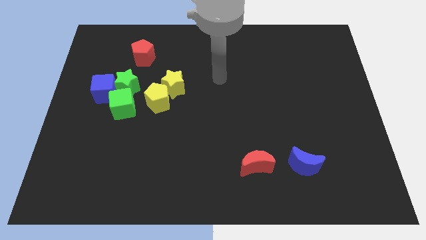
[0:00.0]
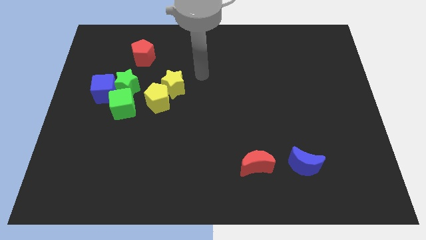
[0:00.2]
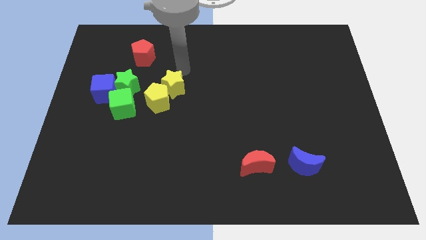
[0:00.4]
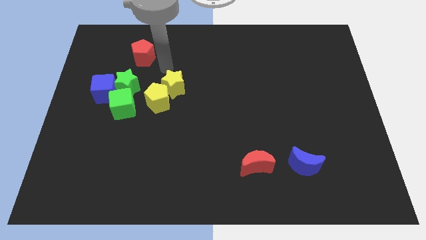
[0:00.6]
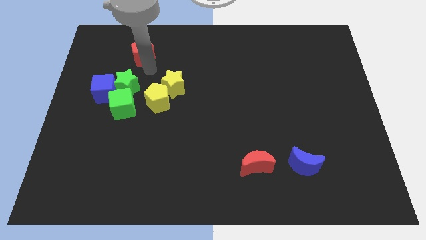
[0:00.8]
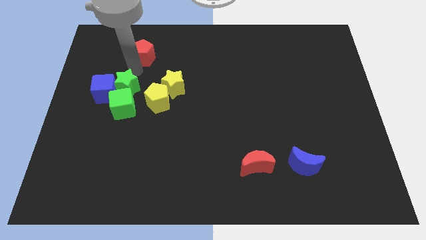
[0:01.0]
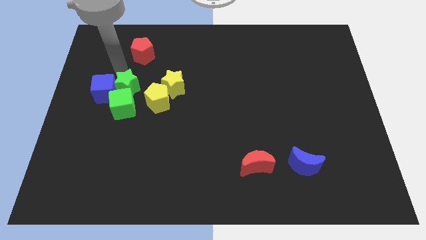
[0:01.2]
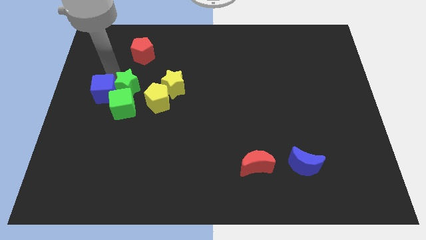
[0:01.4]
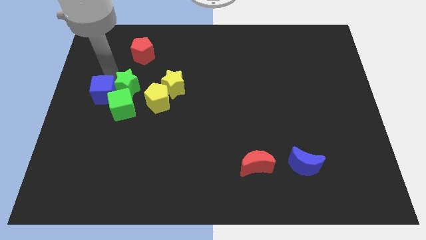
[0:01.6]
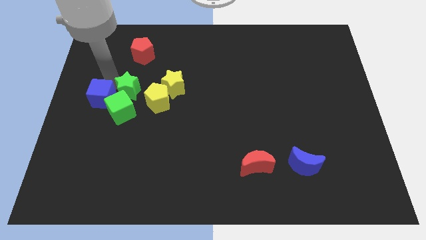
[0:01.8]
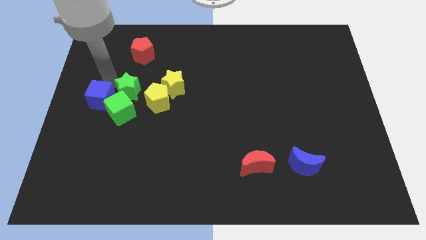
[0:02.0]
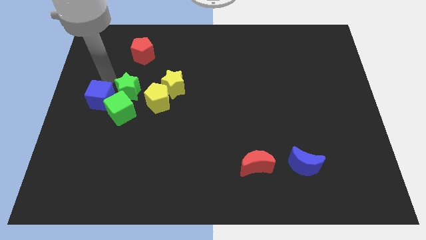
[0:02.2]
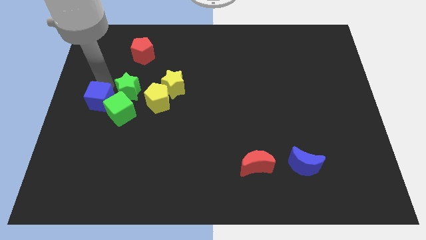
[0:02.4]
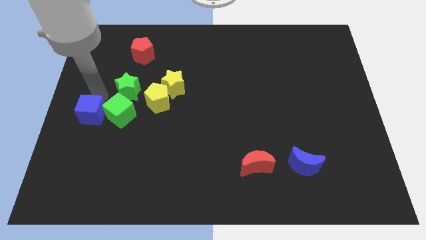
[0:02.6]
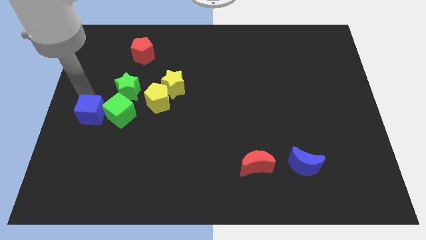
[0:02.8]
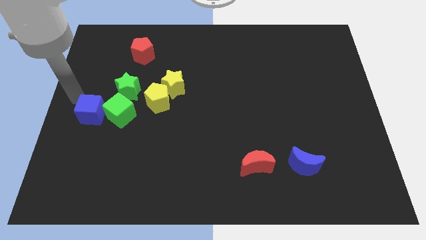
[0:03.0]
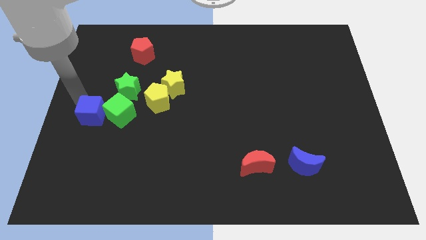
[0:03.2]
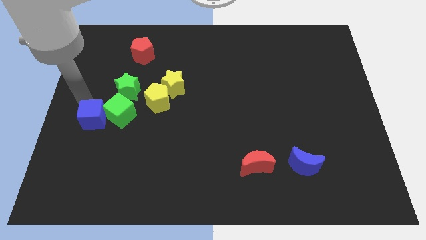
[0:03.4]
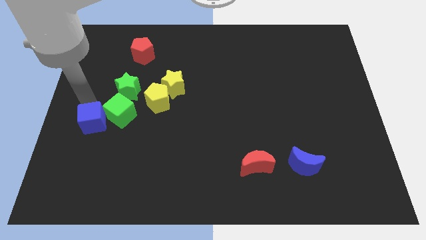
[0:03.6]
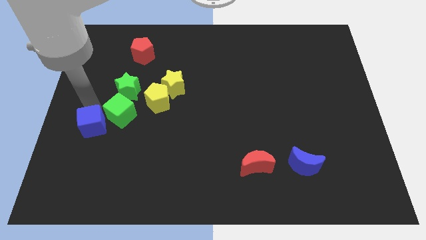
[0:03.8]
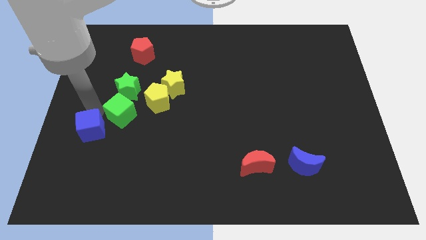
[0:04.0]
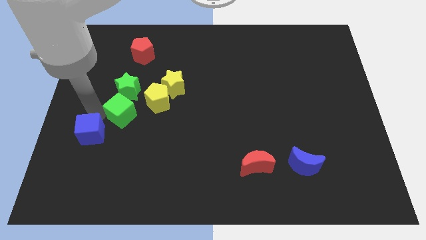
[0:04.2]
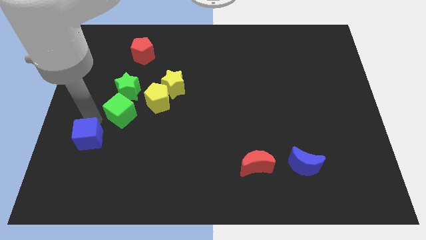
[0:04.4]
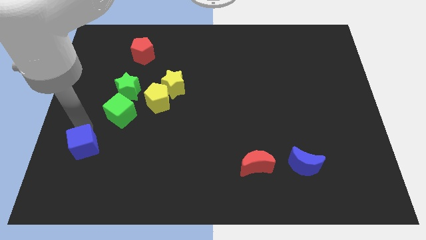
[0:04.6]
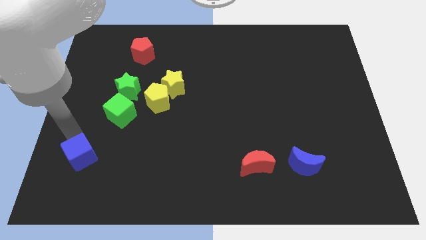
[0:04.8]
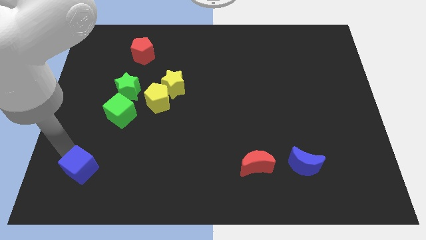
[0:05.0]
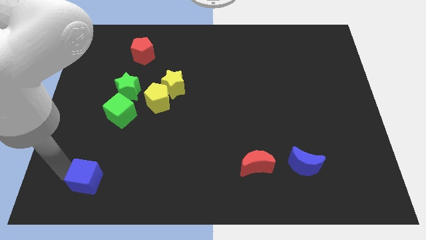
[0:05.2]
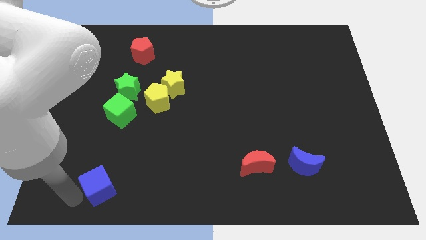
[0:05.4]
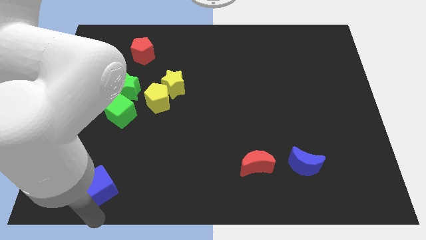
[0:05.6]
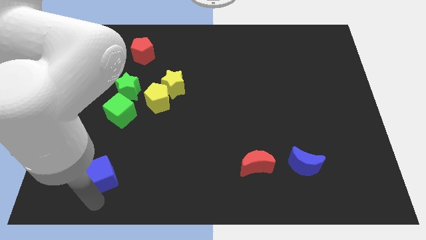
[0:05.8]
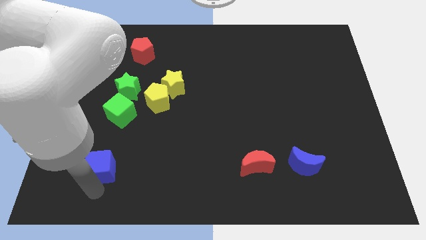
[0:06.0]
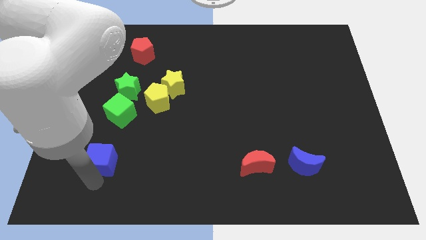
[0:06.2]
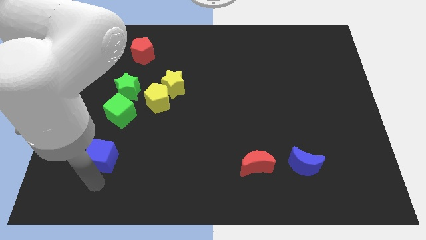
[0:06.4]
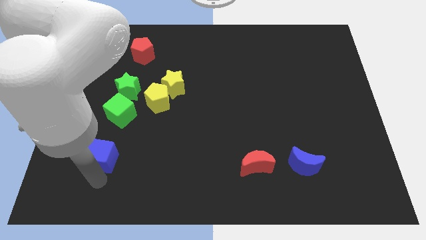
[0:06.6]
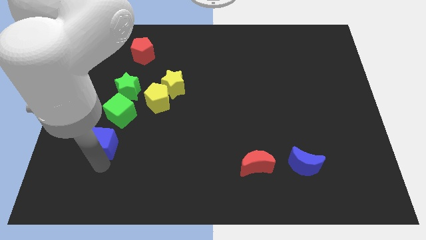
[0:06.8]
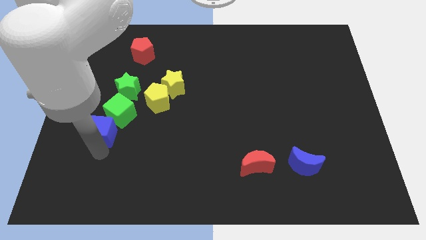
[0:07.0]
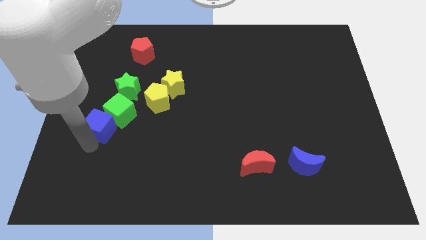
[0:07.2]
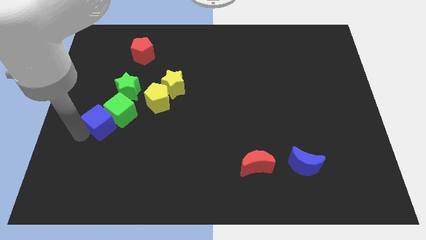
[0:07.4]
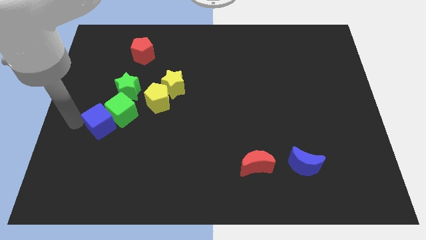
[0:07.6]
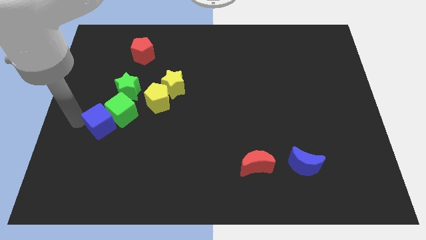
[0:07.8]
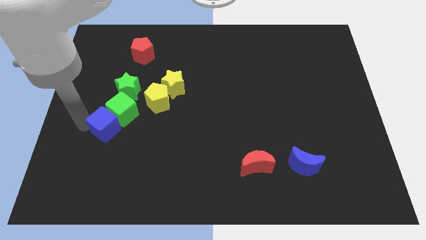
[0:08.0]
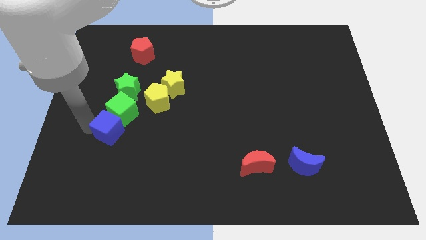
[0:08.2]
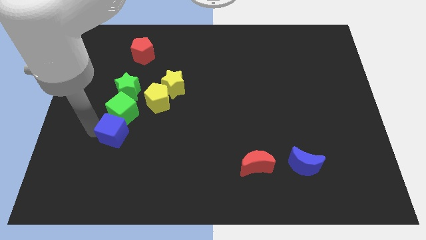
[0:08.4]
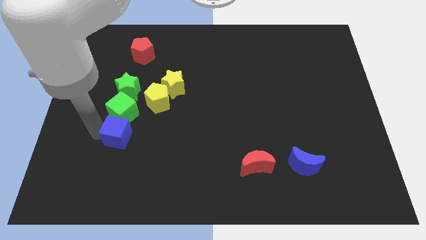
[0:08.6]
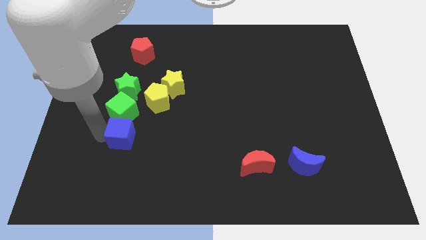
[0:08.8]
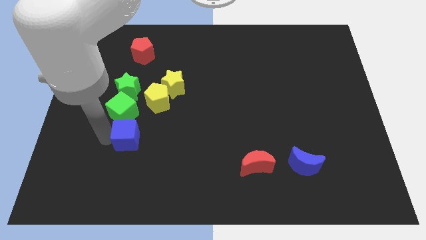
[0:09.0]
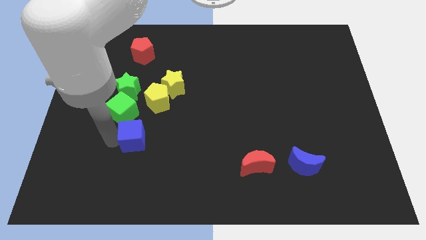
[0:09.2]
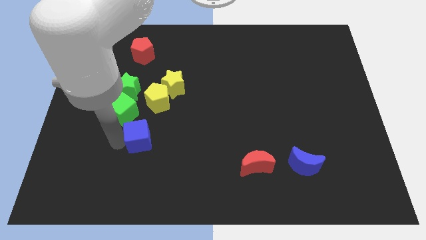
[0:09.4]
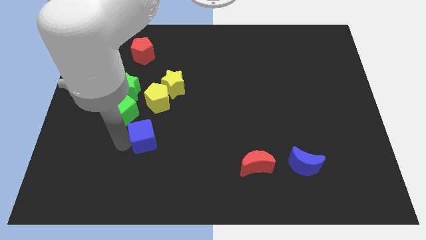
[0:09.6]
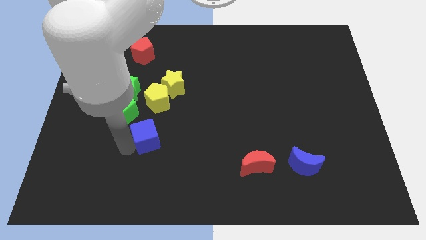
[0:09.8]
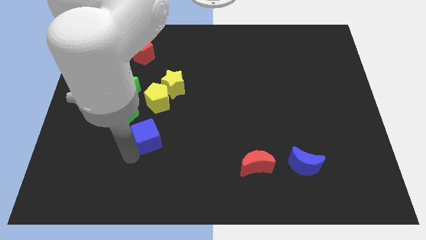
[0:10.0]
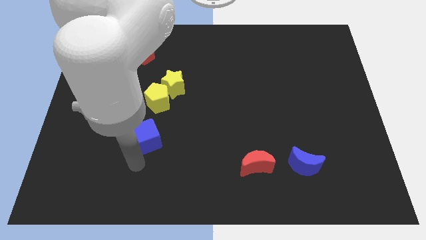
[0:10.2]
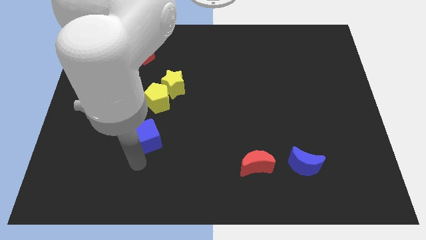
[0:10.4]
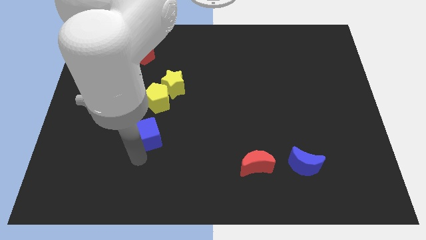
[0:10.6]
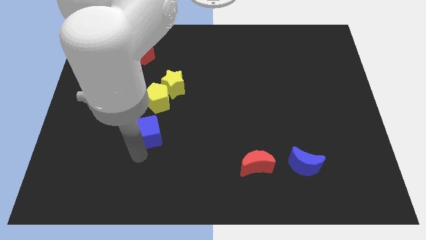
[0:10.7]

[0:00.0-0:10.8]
put the blue cube to the bottom of the yellow star

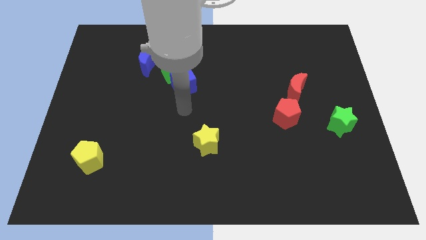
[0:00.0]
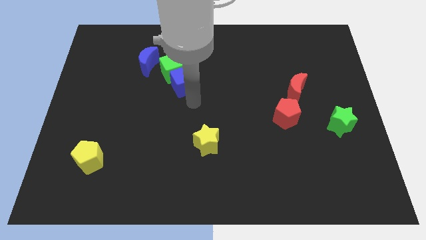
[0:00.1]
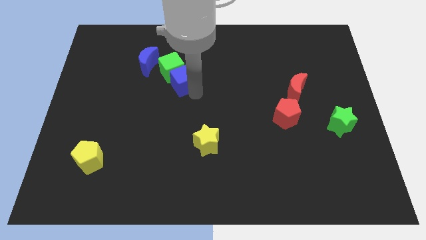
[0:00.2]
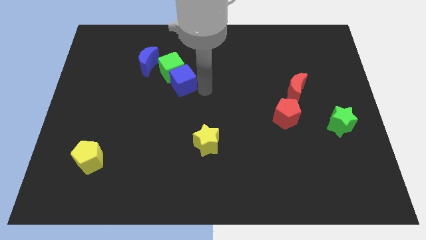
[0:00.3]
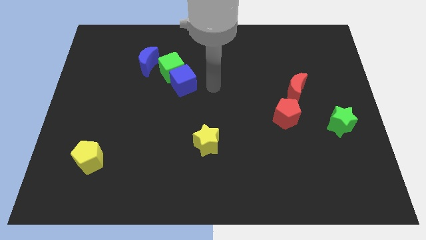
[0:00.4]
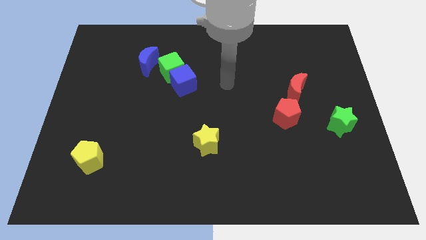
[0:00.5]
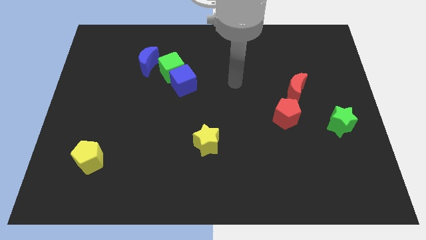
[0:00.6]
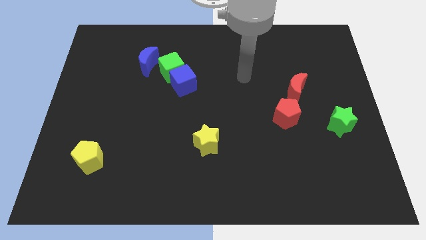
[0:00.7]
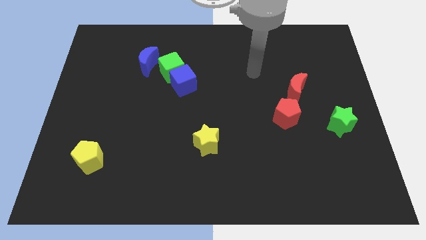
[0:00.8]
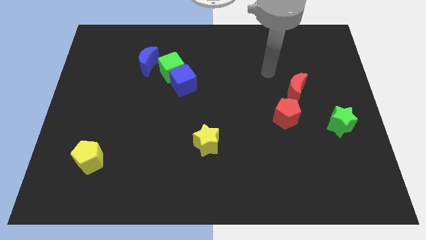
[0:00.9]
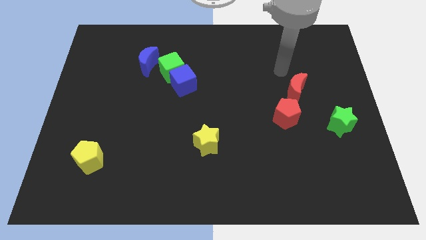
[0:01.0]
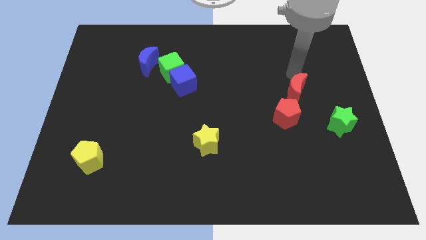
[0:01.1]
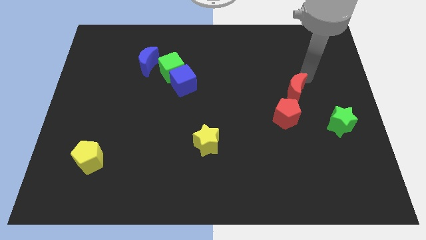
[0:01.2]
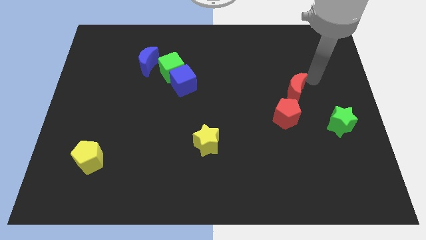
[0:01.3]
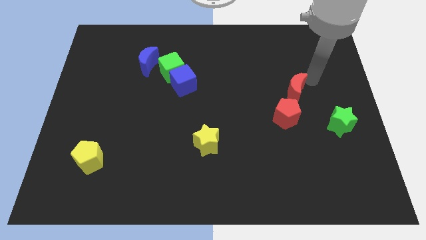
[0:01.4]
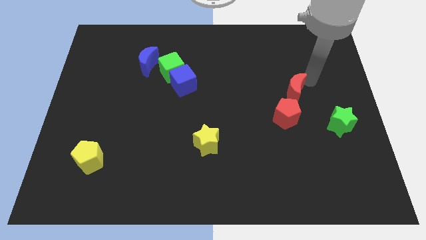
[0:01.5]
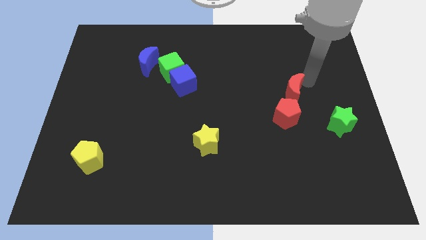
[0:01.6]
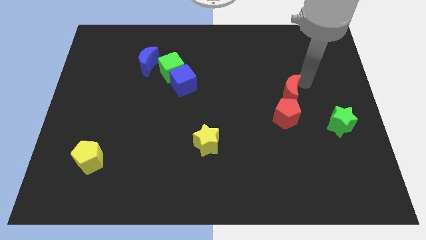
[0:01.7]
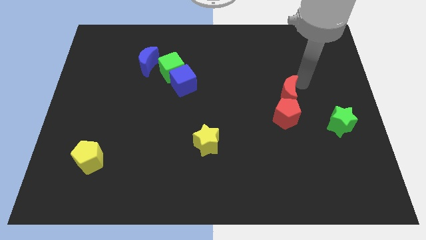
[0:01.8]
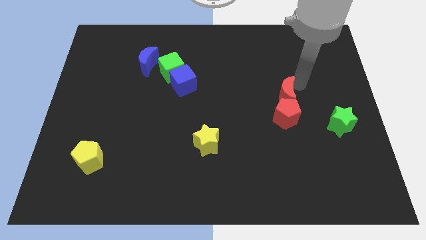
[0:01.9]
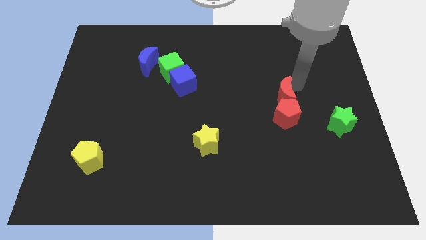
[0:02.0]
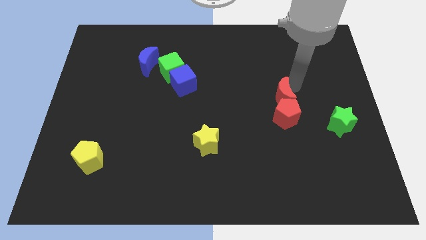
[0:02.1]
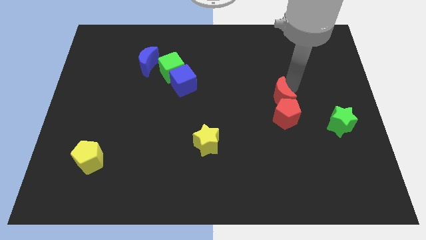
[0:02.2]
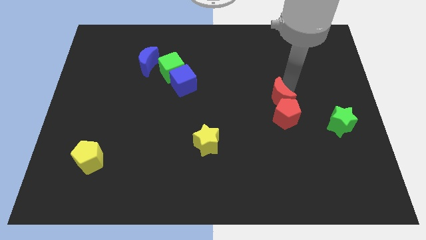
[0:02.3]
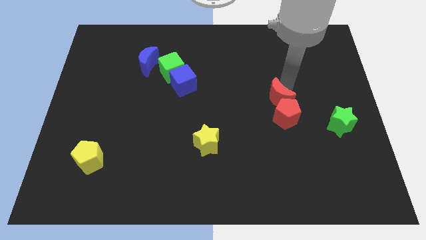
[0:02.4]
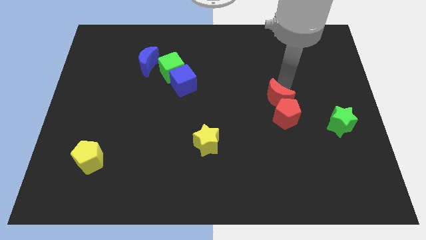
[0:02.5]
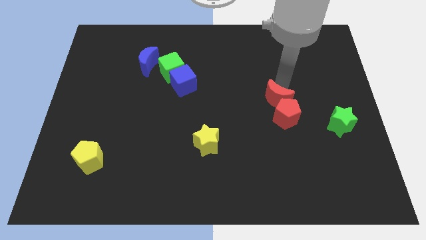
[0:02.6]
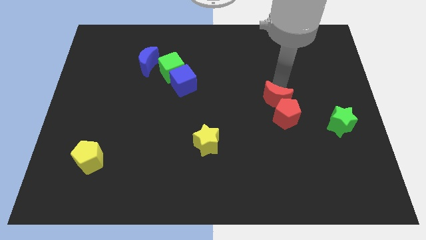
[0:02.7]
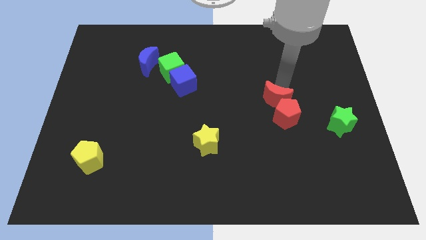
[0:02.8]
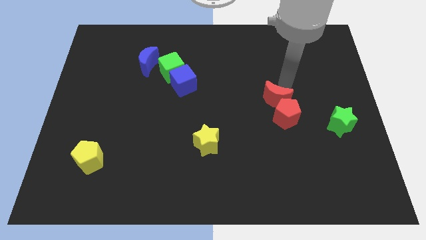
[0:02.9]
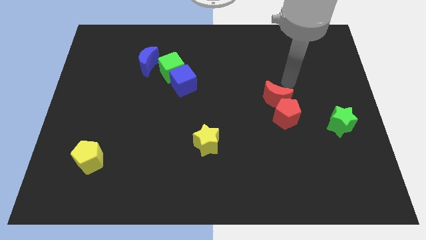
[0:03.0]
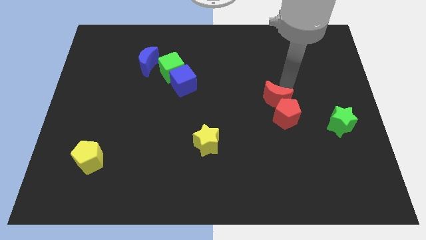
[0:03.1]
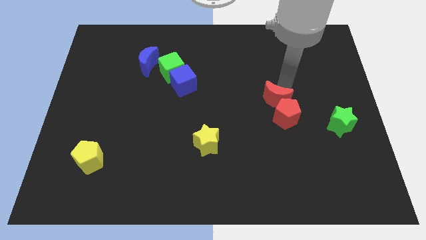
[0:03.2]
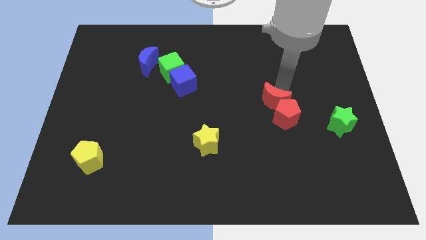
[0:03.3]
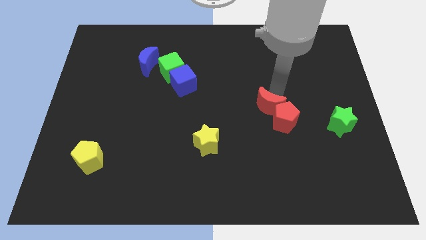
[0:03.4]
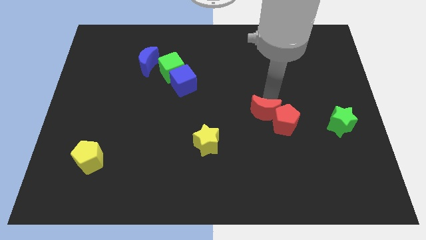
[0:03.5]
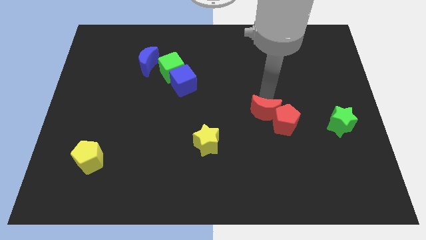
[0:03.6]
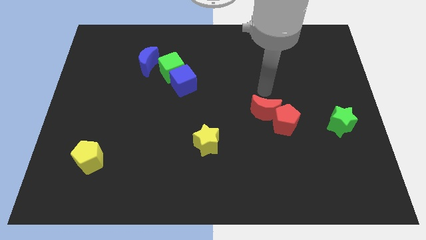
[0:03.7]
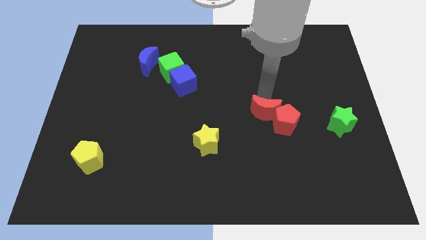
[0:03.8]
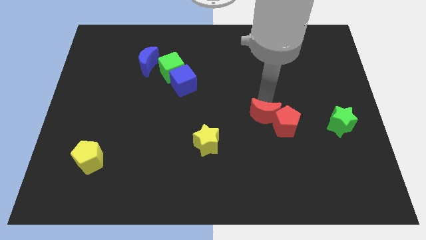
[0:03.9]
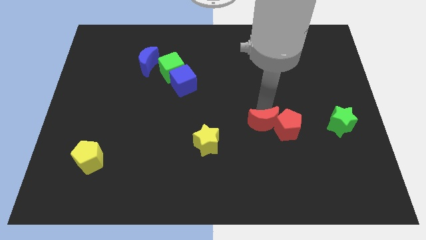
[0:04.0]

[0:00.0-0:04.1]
slide the red moon to the bottom left side of the red pentagon
